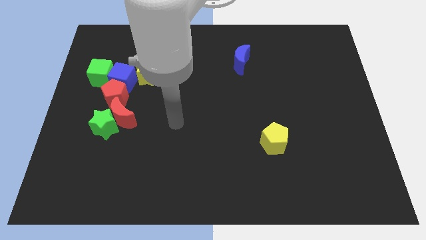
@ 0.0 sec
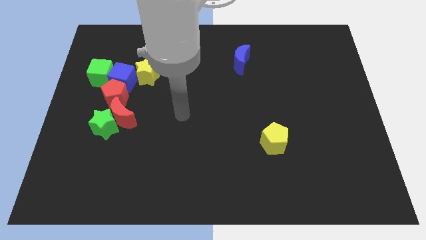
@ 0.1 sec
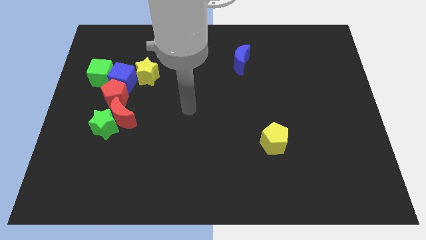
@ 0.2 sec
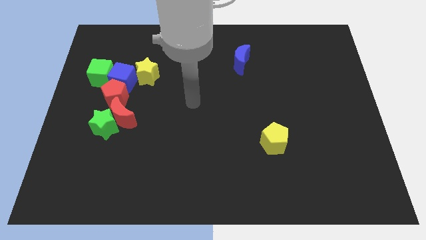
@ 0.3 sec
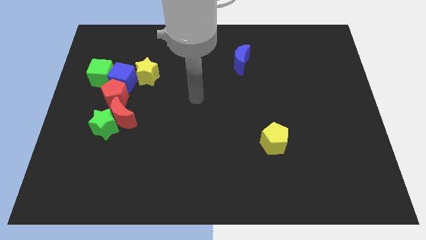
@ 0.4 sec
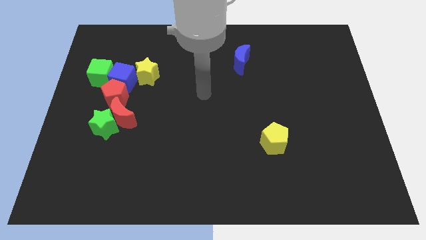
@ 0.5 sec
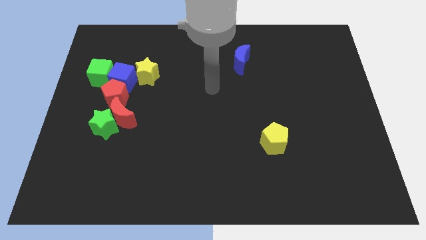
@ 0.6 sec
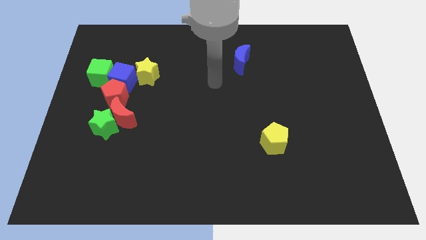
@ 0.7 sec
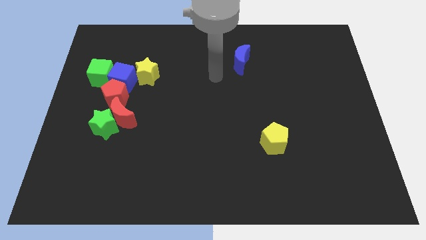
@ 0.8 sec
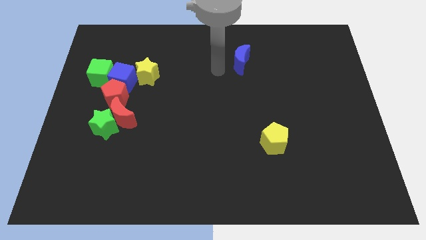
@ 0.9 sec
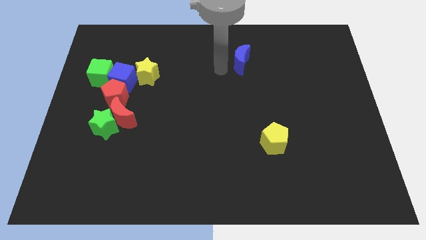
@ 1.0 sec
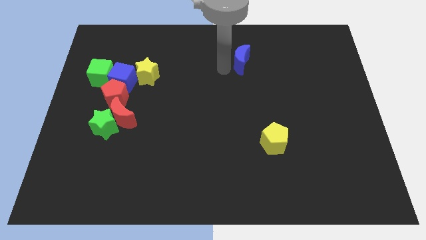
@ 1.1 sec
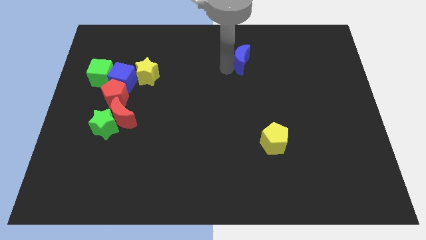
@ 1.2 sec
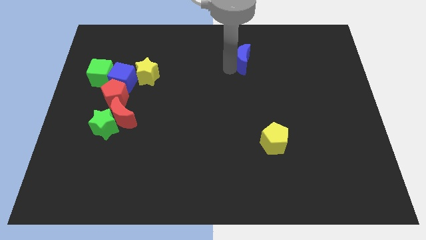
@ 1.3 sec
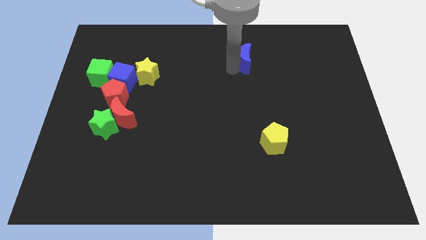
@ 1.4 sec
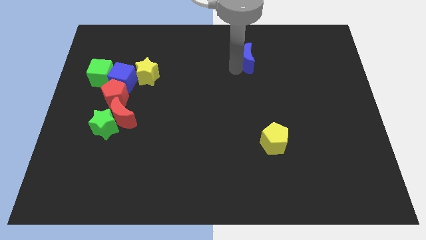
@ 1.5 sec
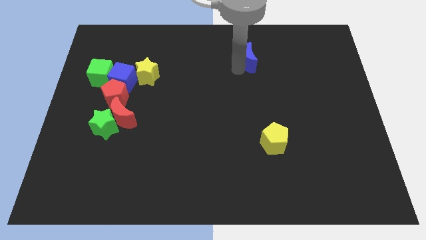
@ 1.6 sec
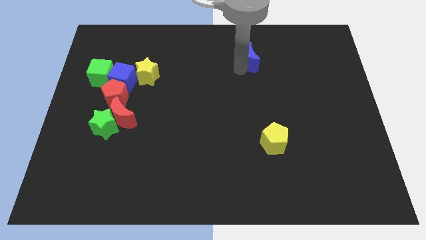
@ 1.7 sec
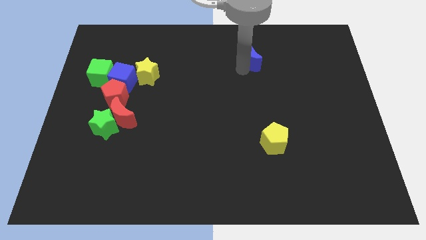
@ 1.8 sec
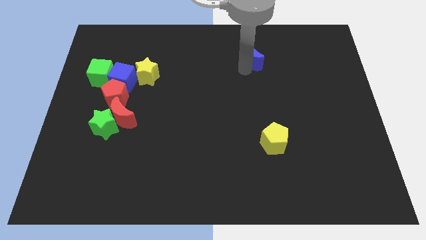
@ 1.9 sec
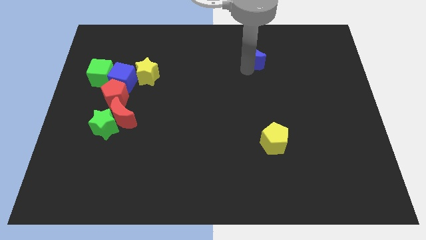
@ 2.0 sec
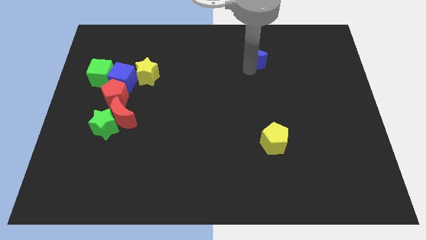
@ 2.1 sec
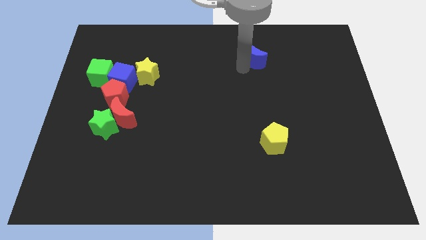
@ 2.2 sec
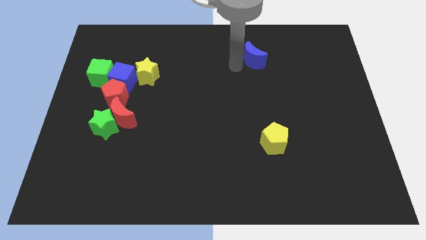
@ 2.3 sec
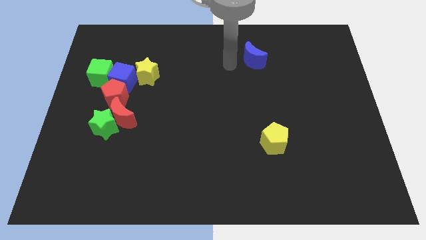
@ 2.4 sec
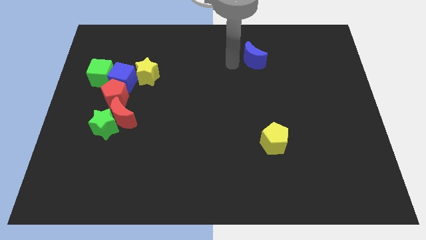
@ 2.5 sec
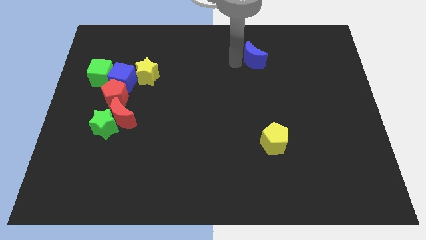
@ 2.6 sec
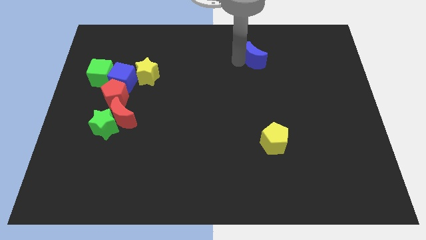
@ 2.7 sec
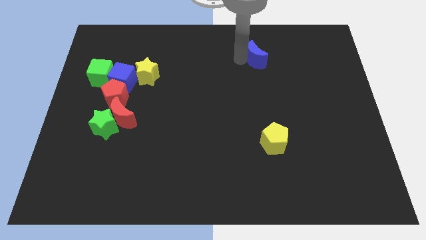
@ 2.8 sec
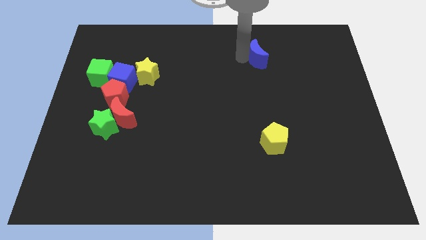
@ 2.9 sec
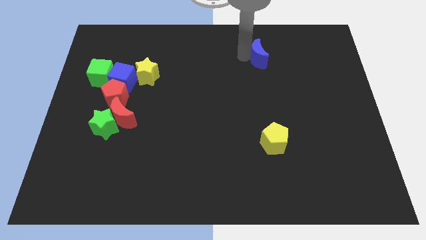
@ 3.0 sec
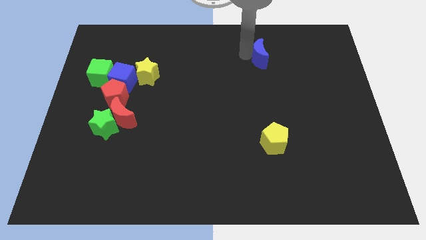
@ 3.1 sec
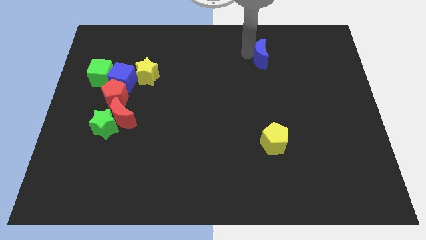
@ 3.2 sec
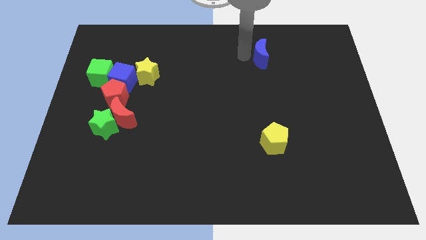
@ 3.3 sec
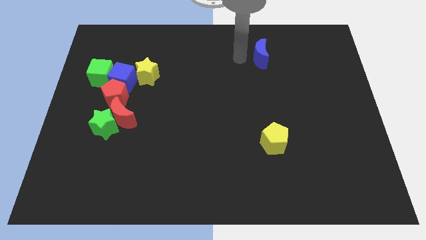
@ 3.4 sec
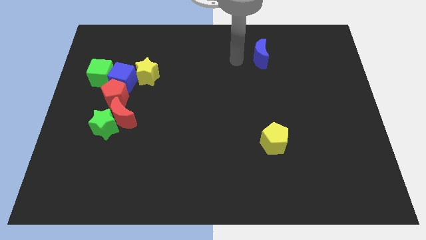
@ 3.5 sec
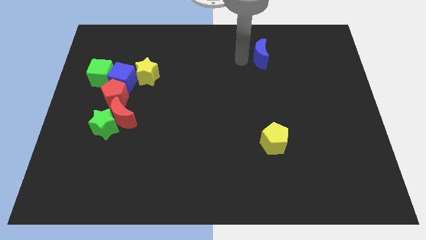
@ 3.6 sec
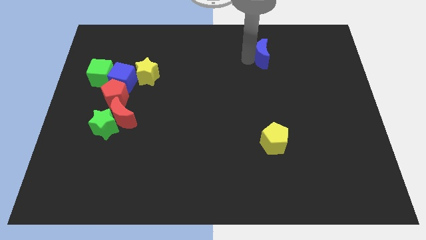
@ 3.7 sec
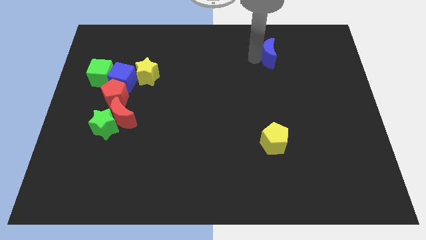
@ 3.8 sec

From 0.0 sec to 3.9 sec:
slightly slide the blue moon to the right

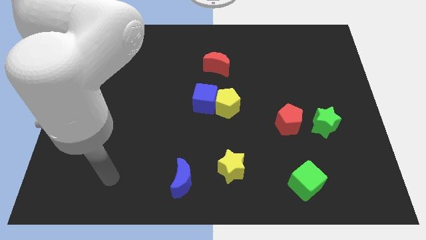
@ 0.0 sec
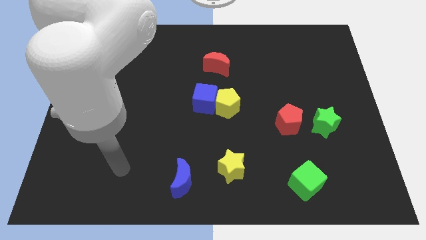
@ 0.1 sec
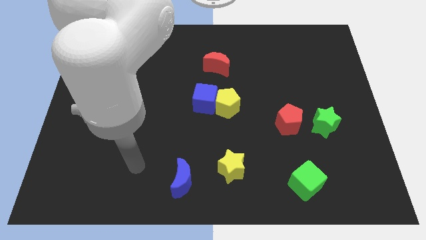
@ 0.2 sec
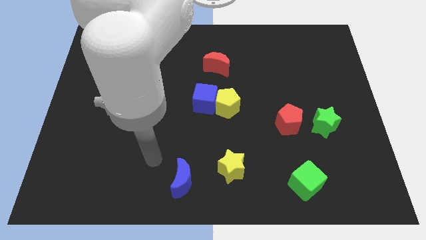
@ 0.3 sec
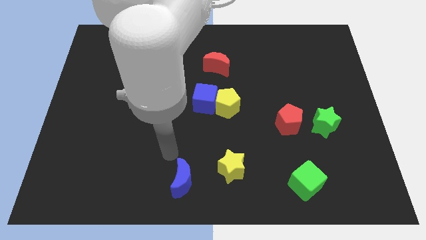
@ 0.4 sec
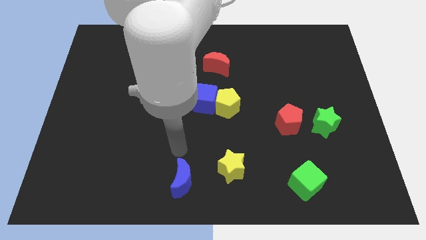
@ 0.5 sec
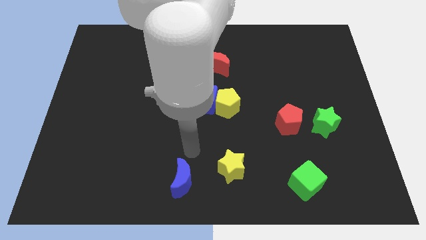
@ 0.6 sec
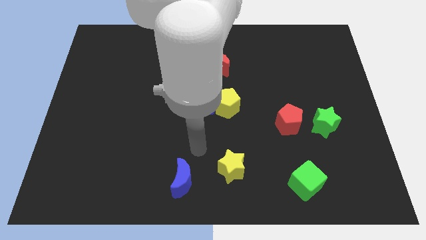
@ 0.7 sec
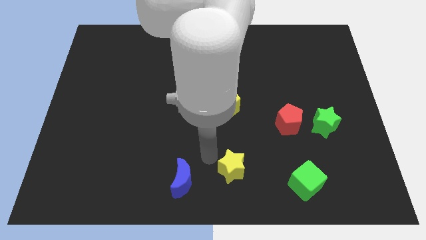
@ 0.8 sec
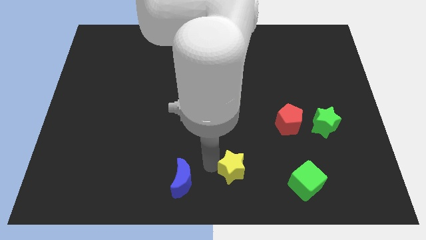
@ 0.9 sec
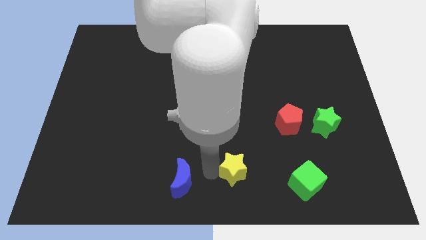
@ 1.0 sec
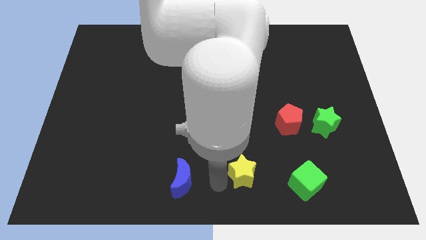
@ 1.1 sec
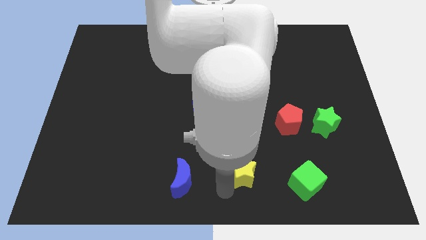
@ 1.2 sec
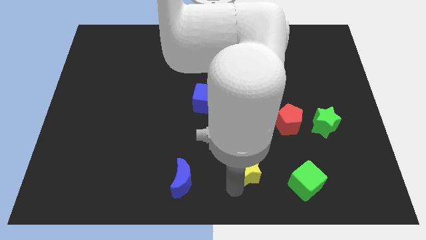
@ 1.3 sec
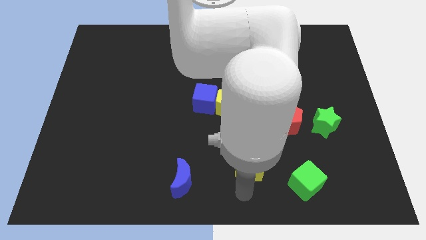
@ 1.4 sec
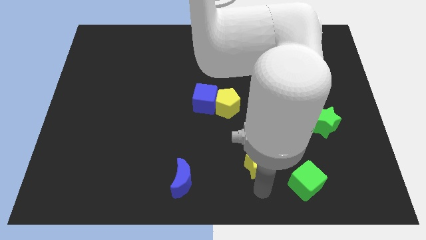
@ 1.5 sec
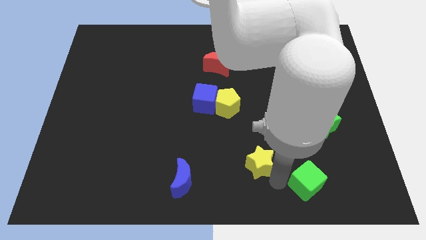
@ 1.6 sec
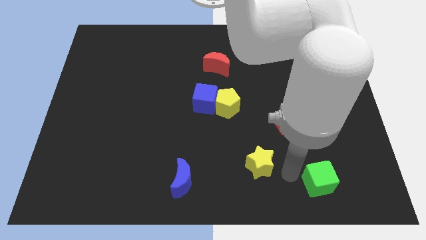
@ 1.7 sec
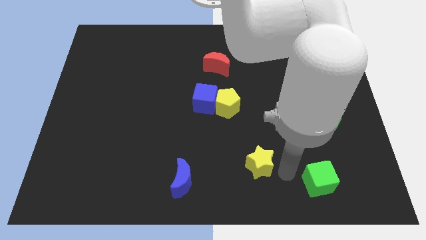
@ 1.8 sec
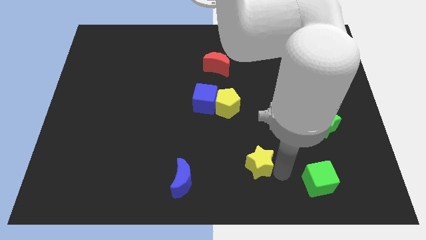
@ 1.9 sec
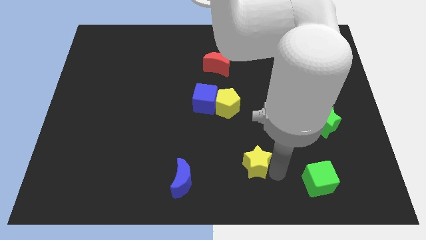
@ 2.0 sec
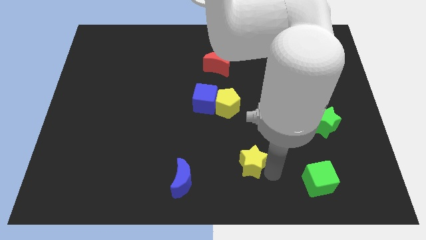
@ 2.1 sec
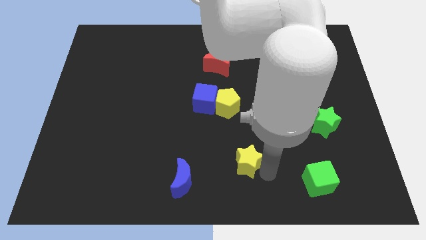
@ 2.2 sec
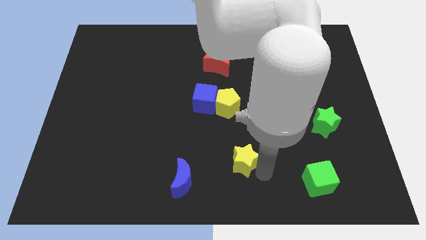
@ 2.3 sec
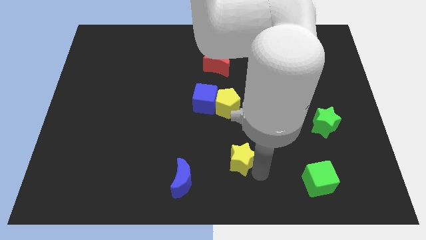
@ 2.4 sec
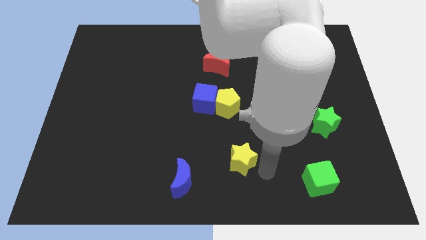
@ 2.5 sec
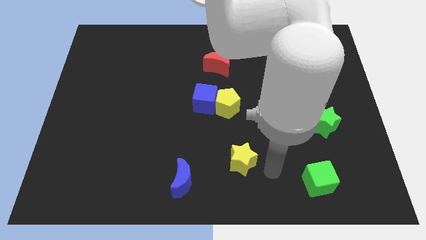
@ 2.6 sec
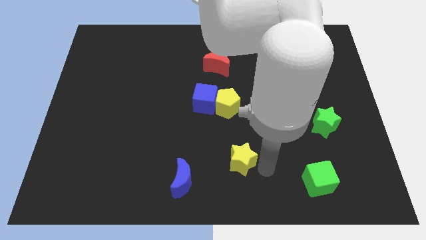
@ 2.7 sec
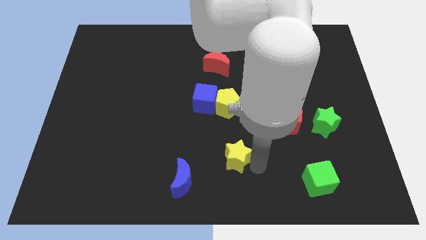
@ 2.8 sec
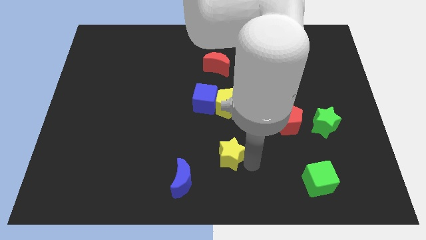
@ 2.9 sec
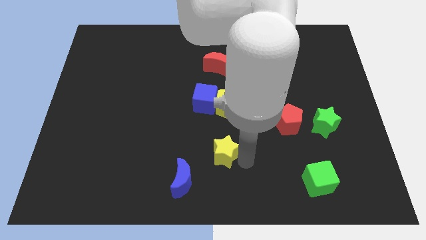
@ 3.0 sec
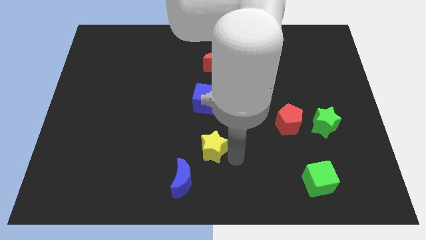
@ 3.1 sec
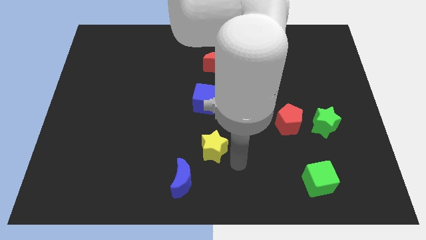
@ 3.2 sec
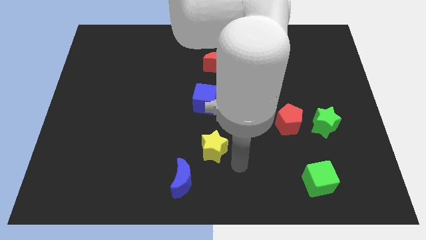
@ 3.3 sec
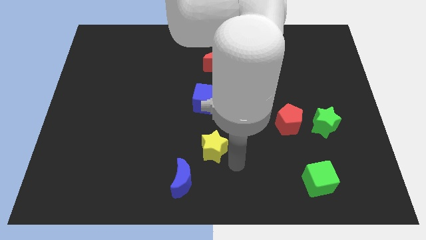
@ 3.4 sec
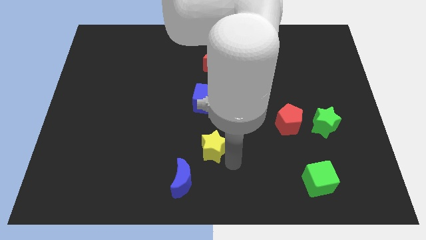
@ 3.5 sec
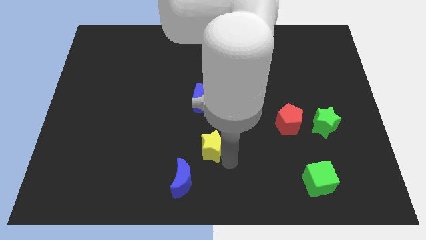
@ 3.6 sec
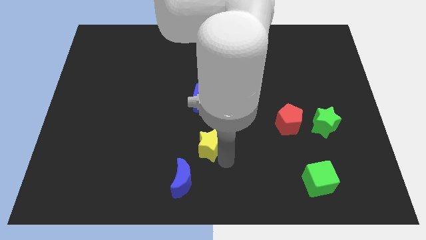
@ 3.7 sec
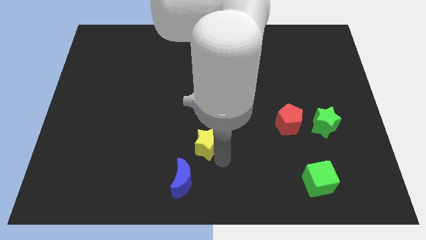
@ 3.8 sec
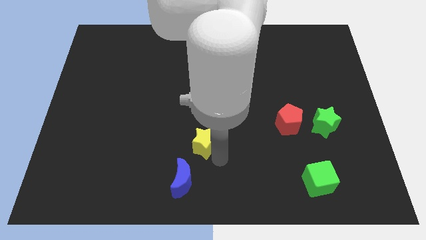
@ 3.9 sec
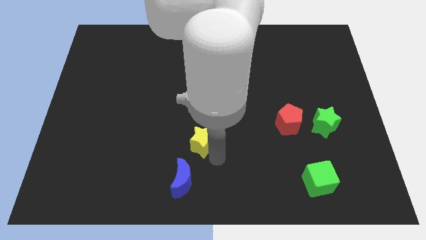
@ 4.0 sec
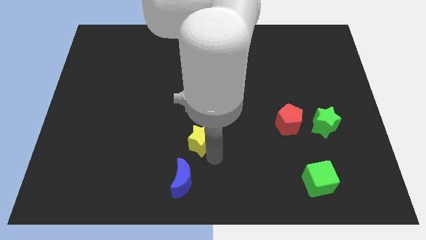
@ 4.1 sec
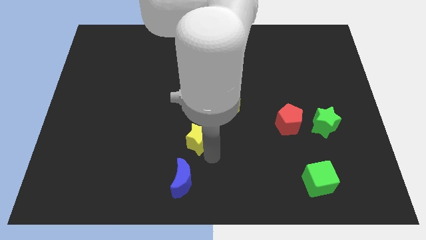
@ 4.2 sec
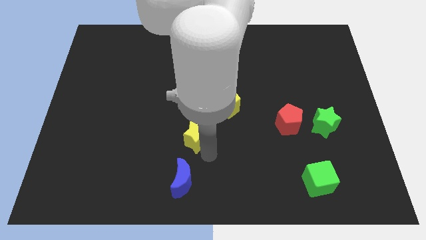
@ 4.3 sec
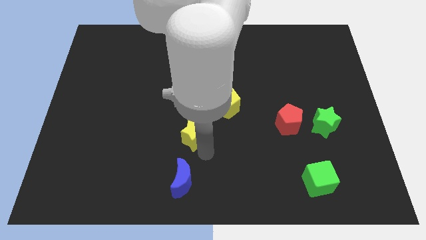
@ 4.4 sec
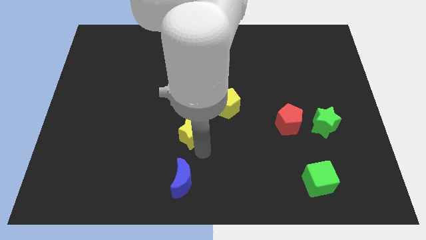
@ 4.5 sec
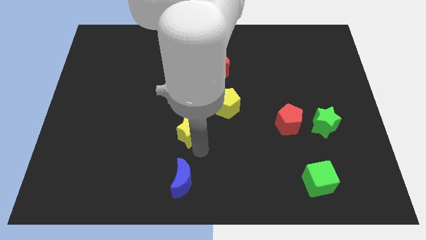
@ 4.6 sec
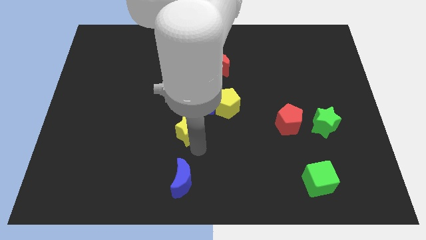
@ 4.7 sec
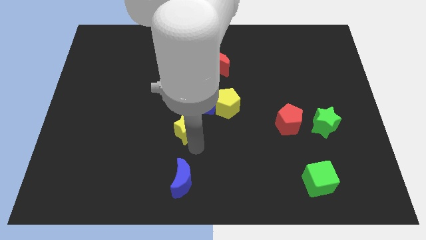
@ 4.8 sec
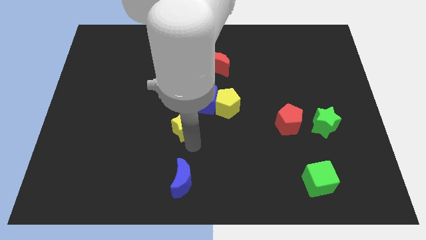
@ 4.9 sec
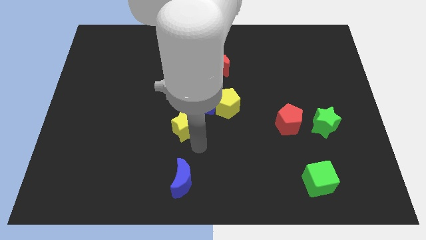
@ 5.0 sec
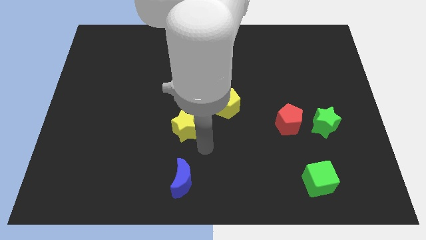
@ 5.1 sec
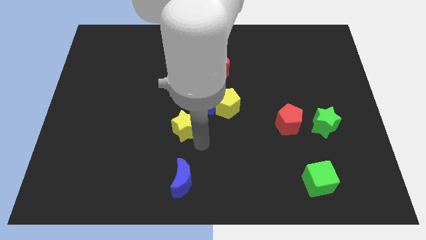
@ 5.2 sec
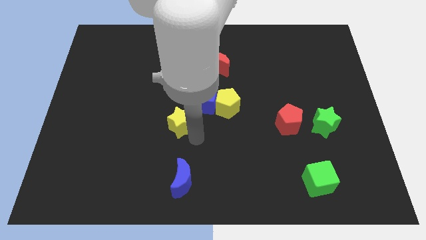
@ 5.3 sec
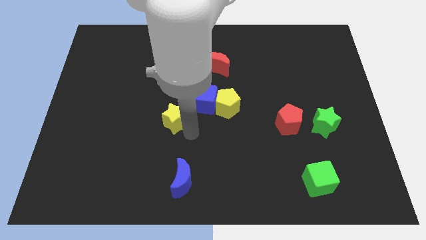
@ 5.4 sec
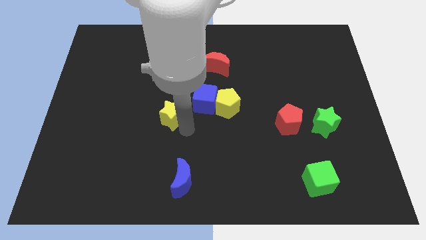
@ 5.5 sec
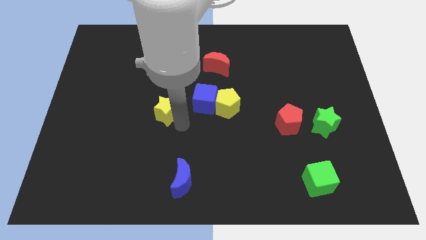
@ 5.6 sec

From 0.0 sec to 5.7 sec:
move the yellow star up and to the left diagonally
